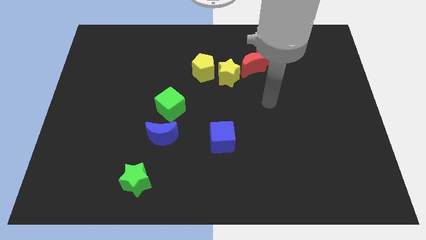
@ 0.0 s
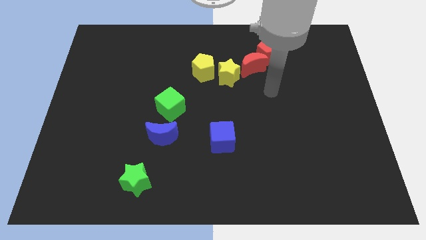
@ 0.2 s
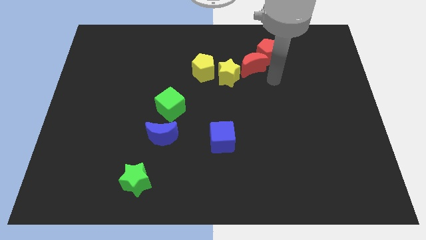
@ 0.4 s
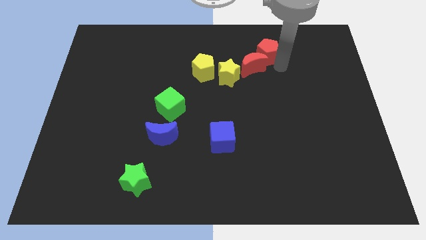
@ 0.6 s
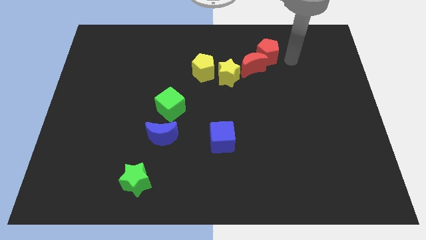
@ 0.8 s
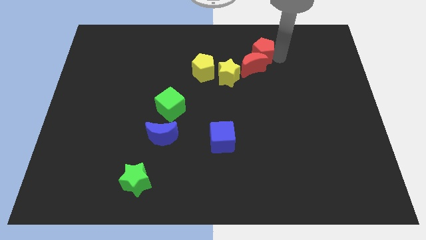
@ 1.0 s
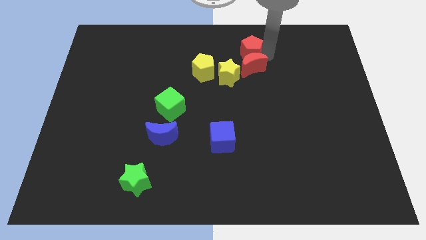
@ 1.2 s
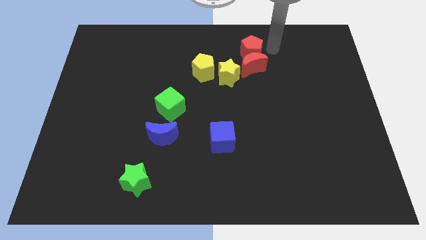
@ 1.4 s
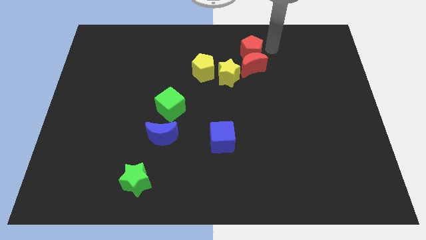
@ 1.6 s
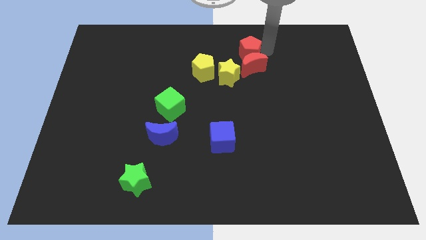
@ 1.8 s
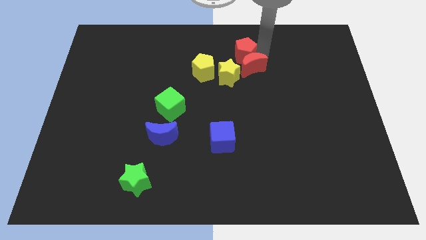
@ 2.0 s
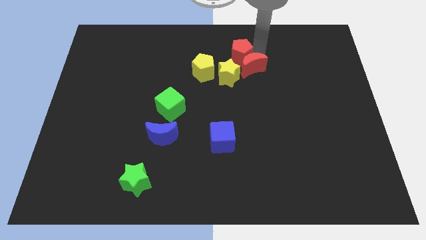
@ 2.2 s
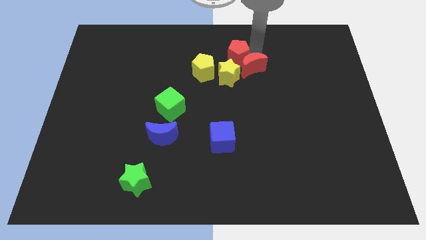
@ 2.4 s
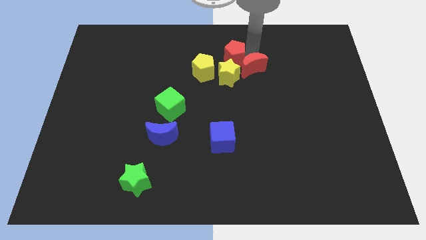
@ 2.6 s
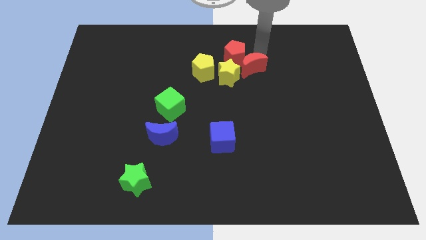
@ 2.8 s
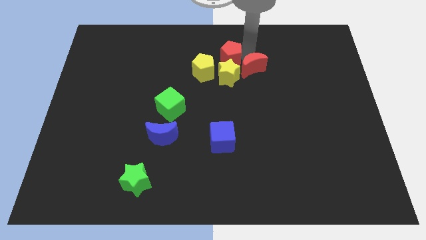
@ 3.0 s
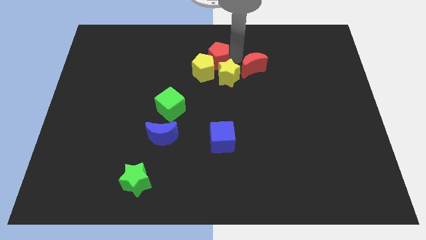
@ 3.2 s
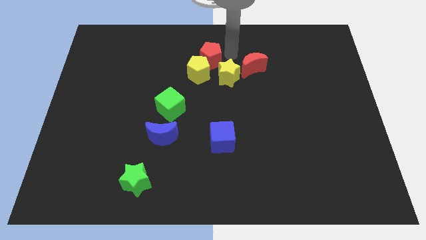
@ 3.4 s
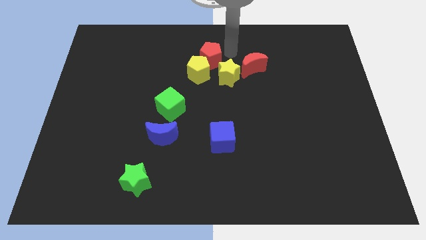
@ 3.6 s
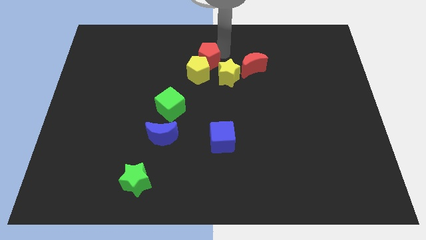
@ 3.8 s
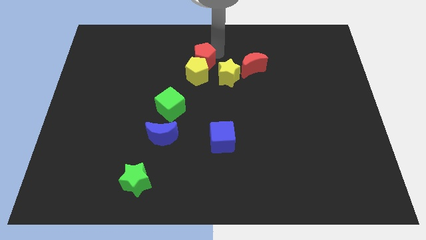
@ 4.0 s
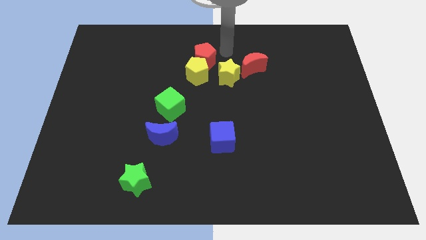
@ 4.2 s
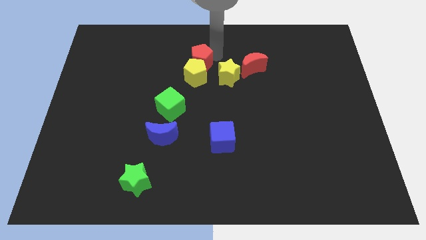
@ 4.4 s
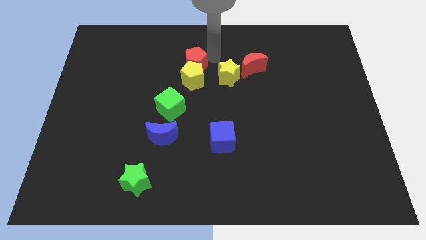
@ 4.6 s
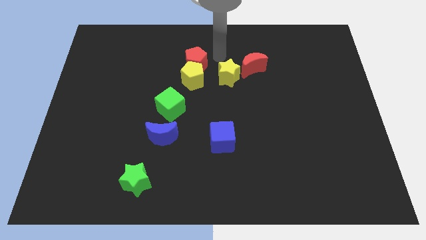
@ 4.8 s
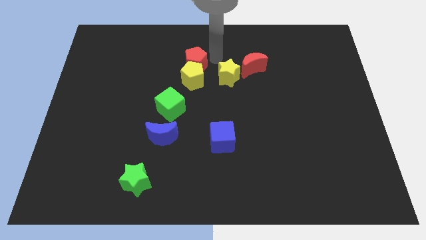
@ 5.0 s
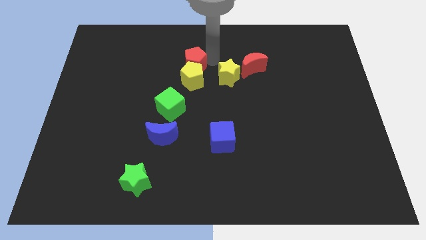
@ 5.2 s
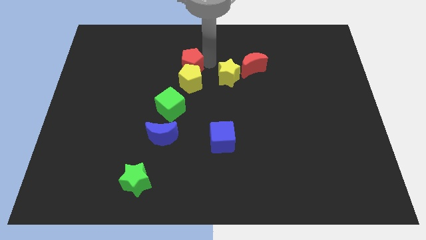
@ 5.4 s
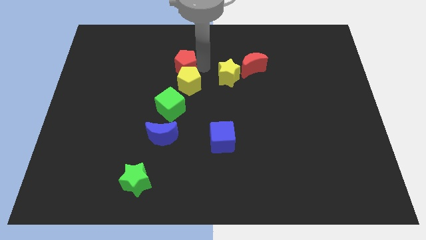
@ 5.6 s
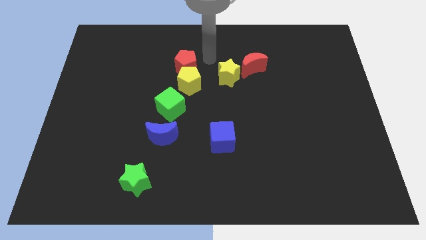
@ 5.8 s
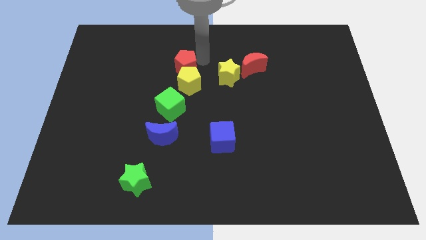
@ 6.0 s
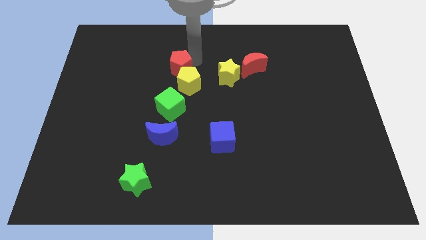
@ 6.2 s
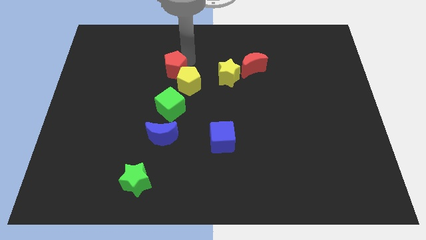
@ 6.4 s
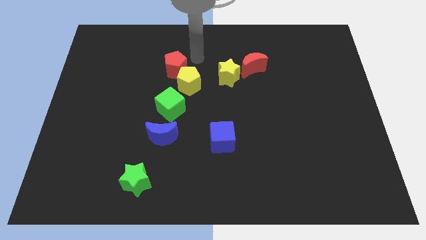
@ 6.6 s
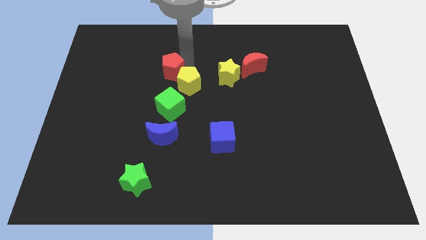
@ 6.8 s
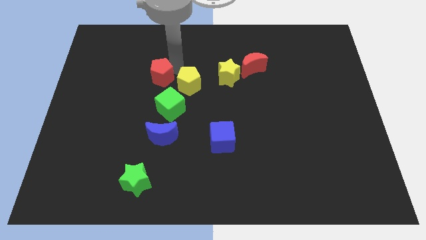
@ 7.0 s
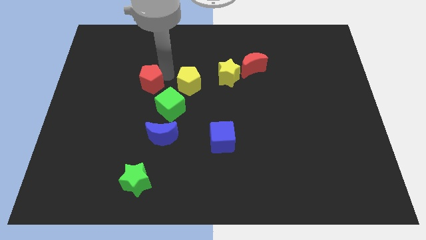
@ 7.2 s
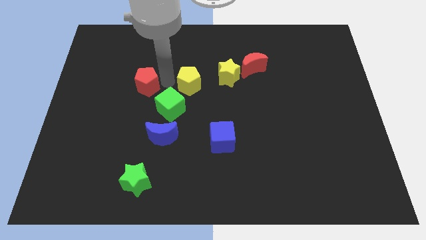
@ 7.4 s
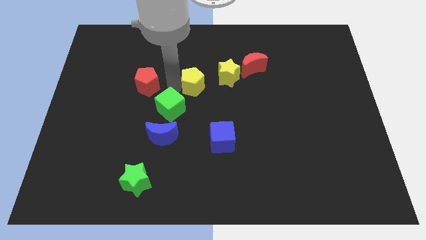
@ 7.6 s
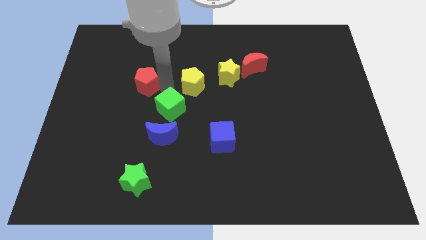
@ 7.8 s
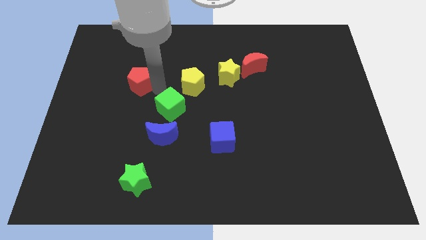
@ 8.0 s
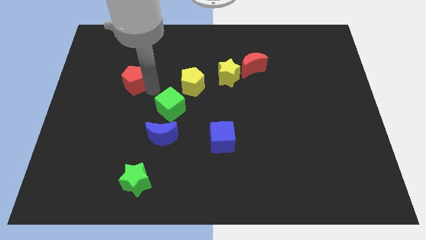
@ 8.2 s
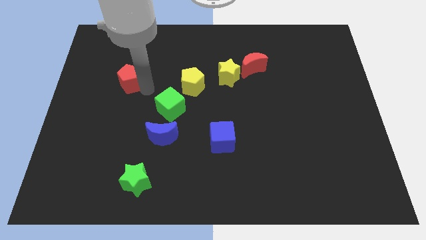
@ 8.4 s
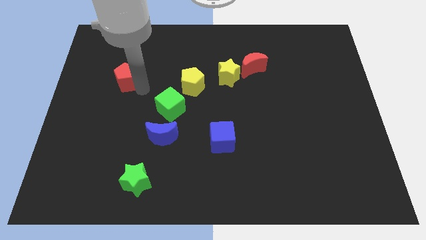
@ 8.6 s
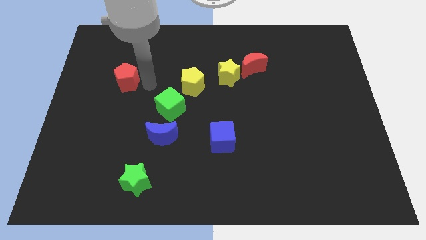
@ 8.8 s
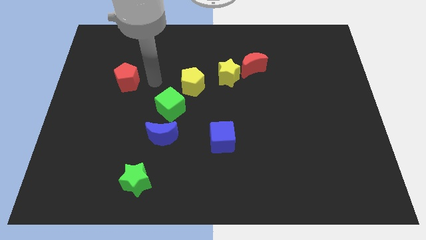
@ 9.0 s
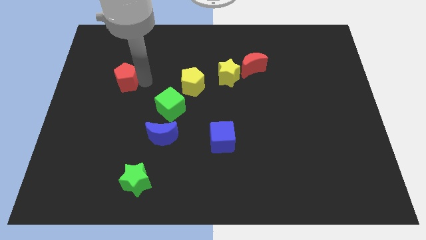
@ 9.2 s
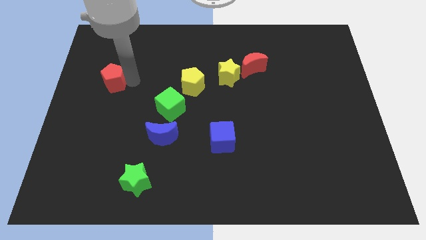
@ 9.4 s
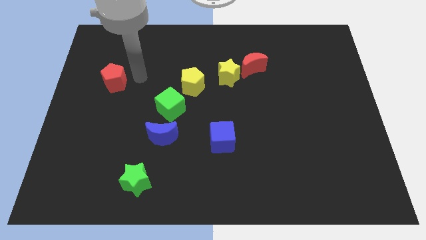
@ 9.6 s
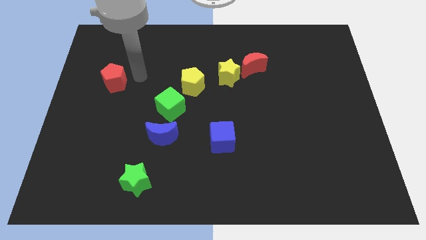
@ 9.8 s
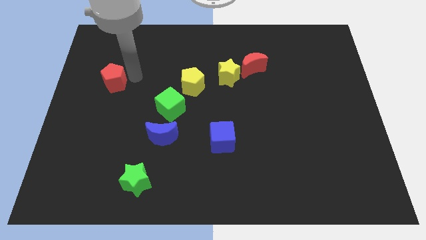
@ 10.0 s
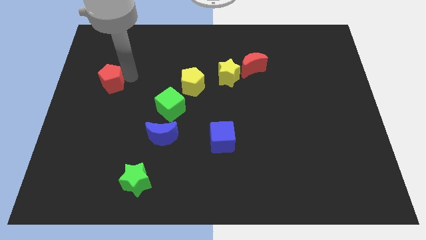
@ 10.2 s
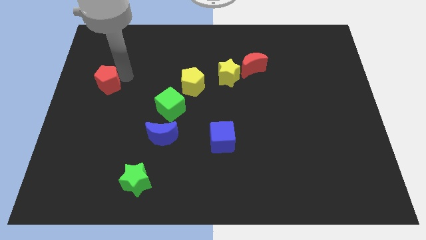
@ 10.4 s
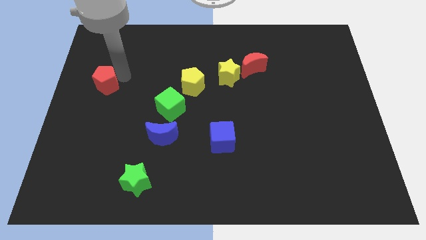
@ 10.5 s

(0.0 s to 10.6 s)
move the red pentagon to the center left
